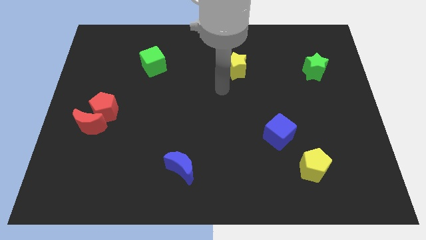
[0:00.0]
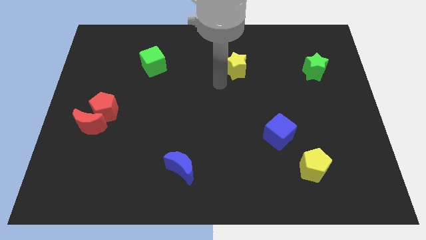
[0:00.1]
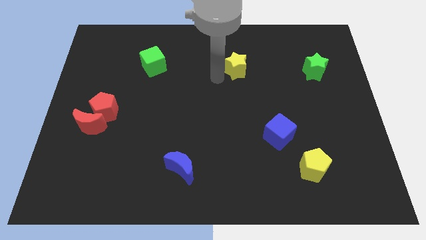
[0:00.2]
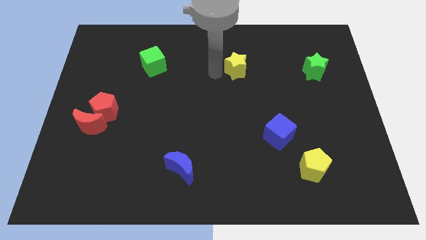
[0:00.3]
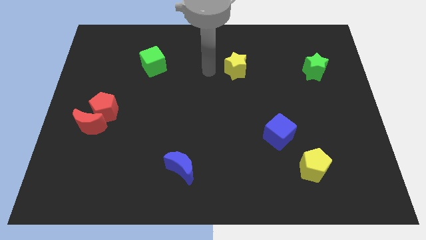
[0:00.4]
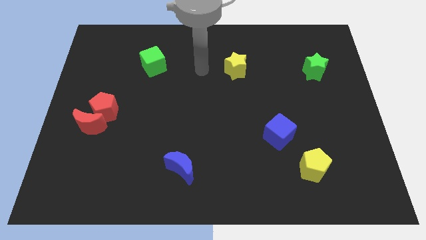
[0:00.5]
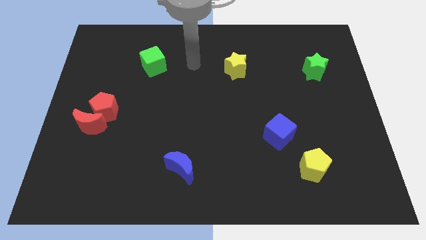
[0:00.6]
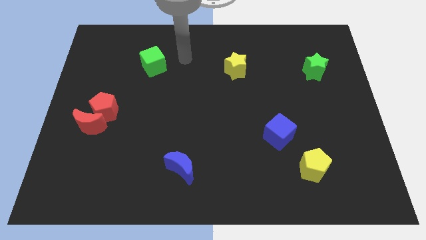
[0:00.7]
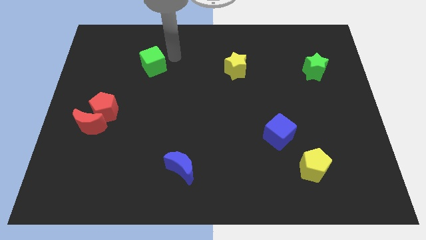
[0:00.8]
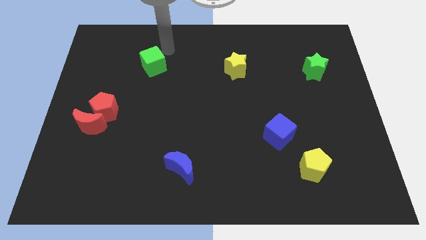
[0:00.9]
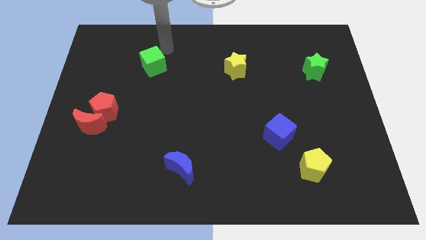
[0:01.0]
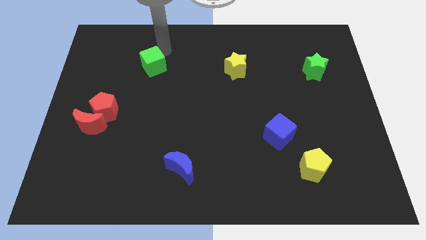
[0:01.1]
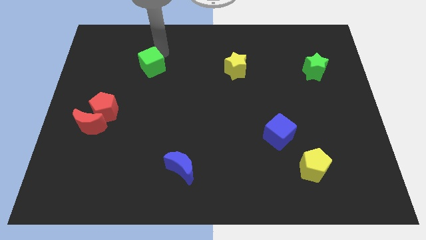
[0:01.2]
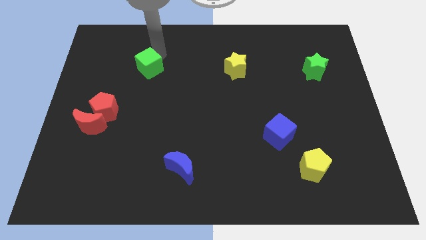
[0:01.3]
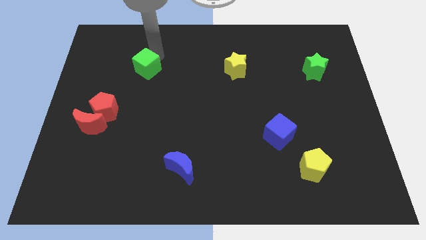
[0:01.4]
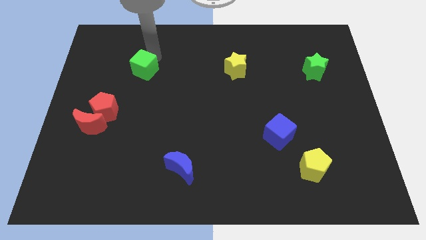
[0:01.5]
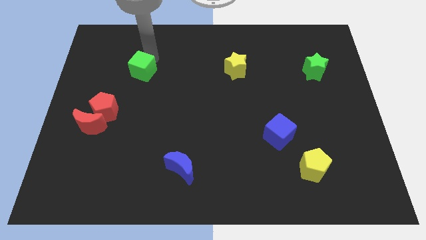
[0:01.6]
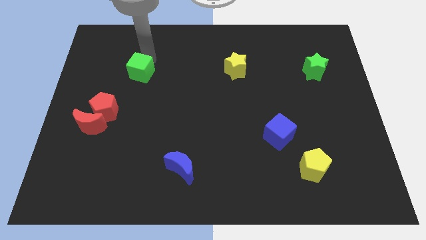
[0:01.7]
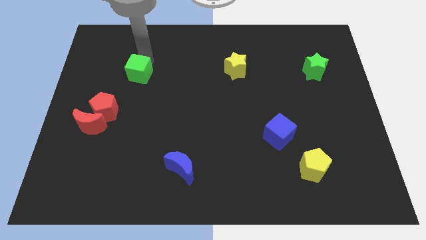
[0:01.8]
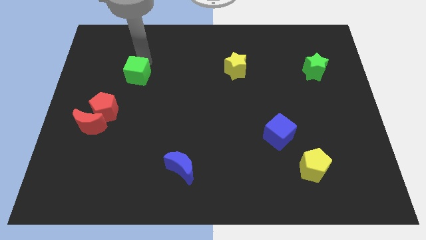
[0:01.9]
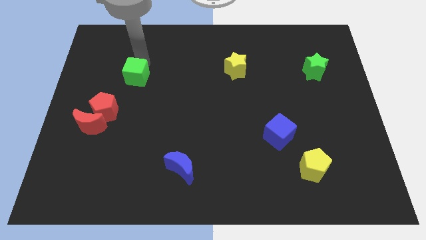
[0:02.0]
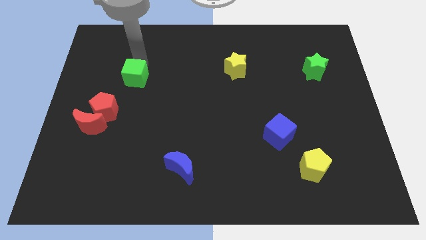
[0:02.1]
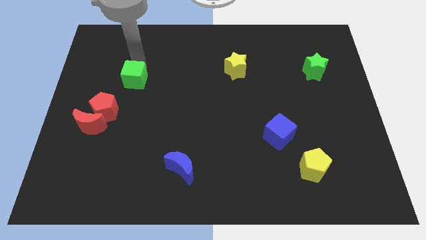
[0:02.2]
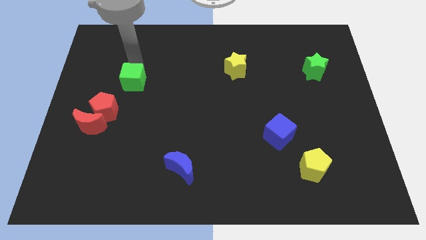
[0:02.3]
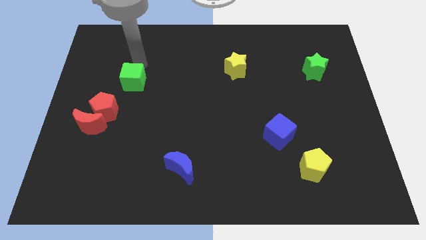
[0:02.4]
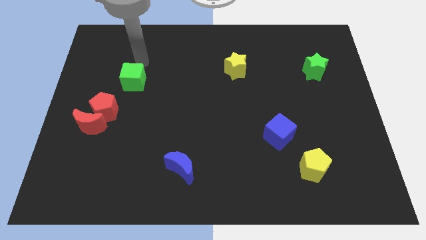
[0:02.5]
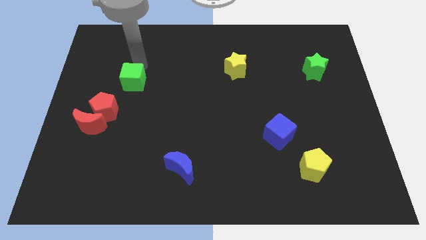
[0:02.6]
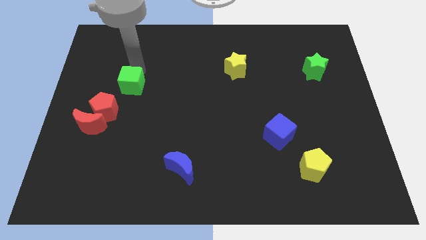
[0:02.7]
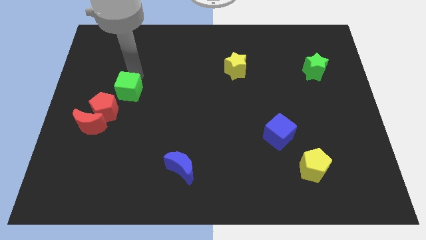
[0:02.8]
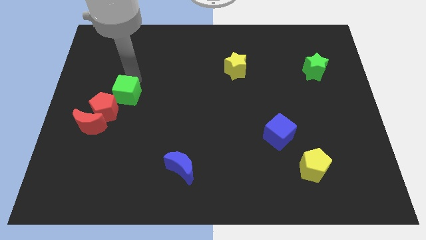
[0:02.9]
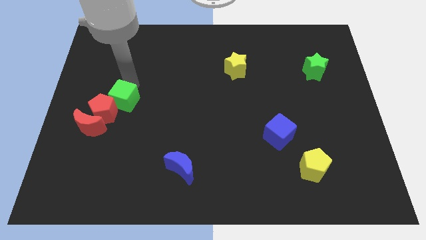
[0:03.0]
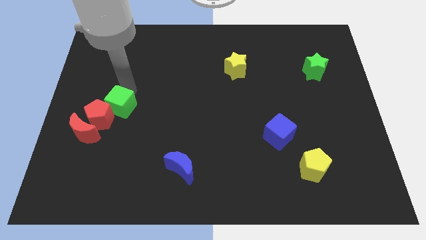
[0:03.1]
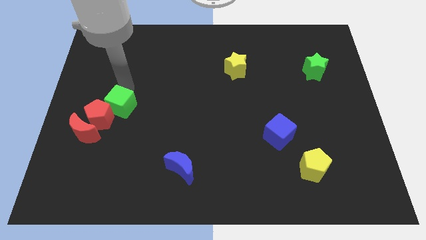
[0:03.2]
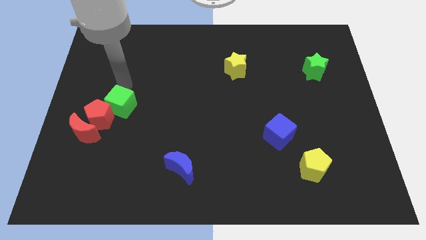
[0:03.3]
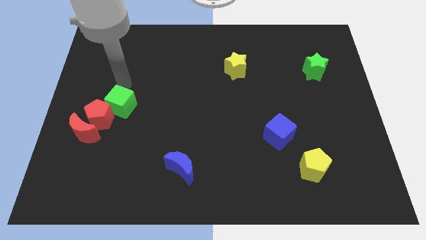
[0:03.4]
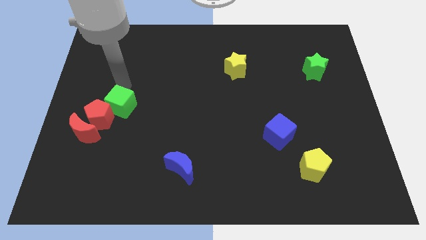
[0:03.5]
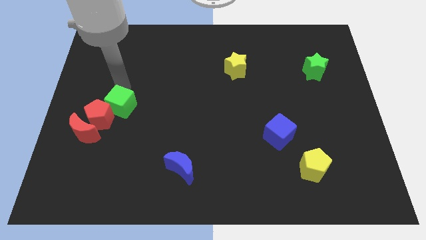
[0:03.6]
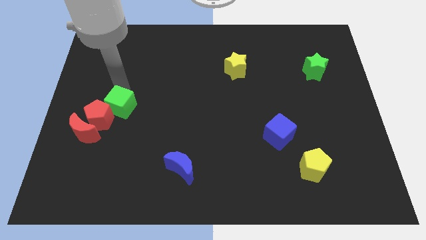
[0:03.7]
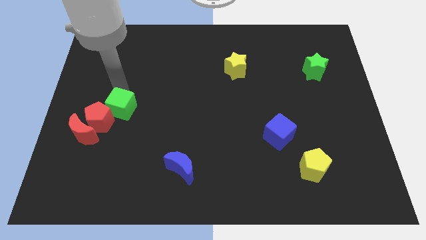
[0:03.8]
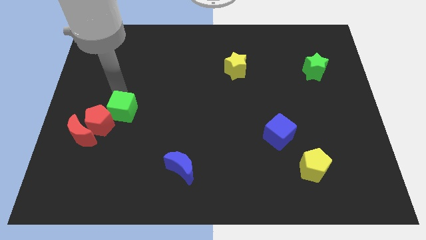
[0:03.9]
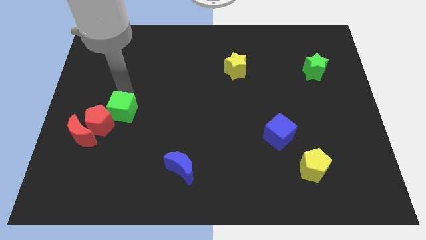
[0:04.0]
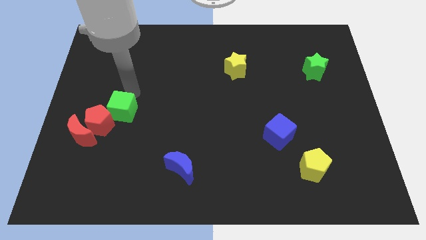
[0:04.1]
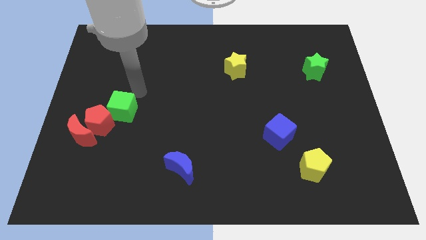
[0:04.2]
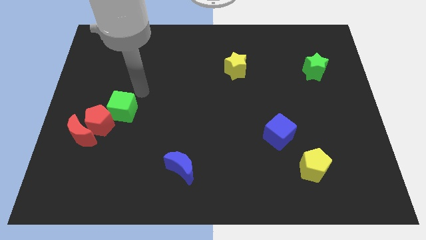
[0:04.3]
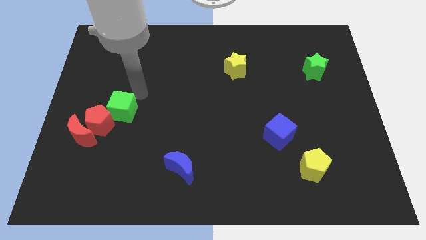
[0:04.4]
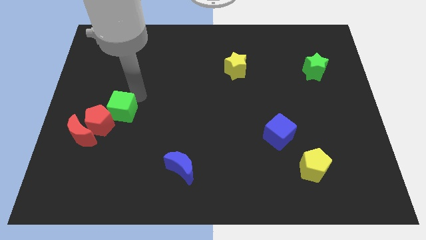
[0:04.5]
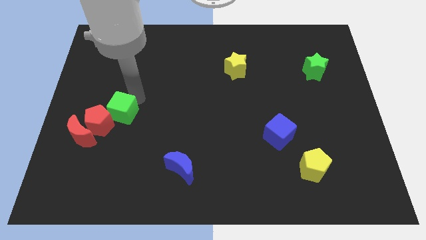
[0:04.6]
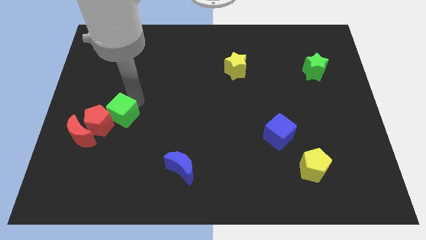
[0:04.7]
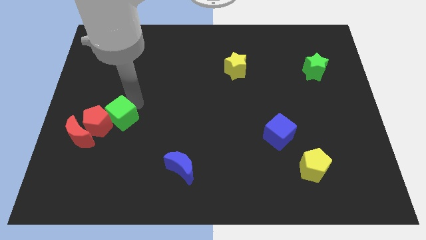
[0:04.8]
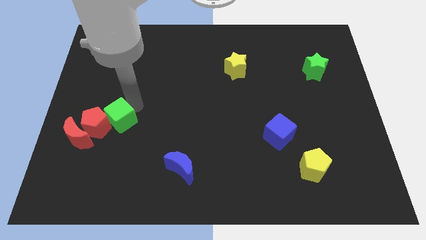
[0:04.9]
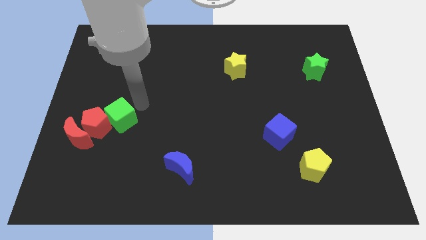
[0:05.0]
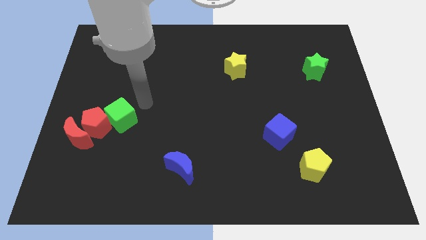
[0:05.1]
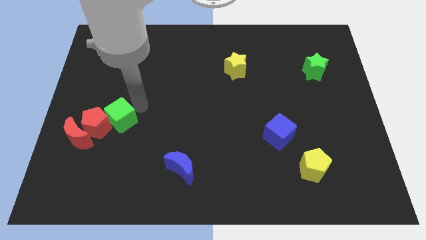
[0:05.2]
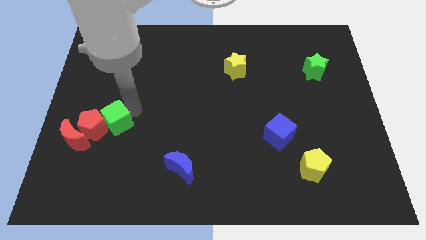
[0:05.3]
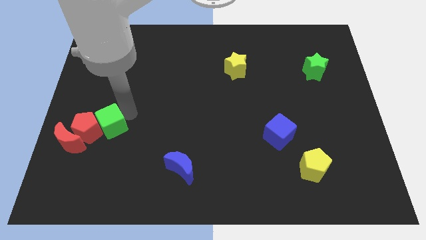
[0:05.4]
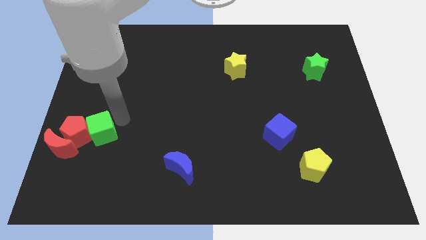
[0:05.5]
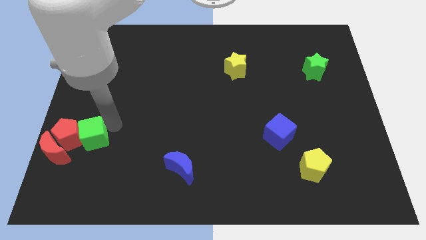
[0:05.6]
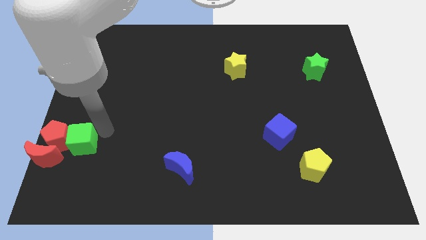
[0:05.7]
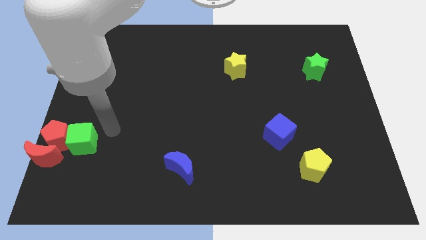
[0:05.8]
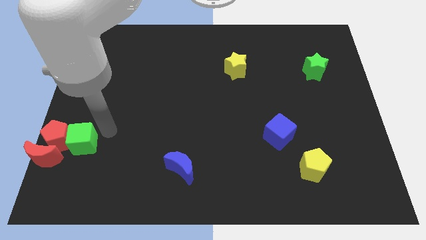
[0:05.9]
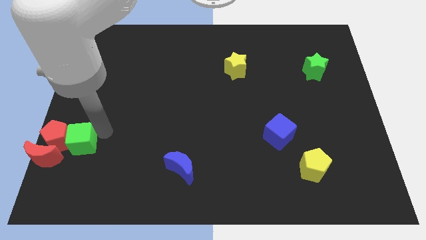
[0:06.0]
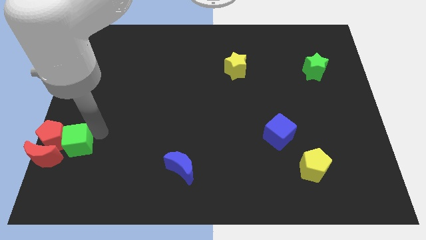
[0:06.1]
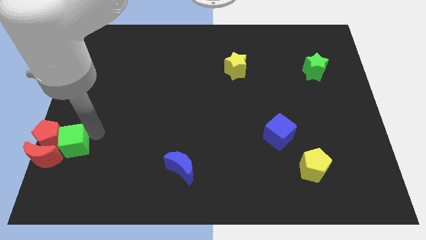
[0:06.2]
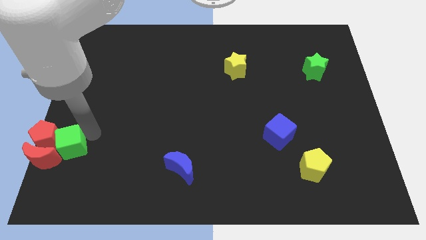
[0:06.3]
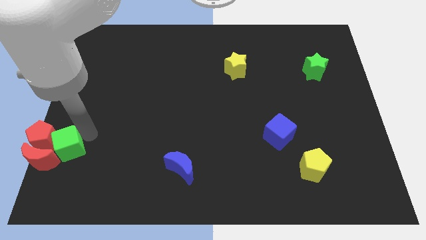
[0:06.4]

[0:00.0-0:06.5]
slide the green cube next to the red moon

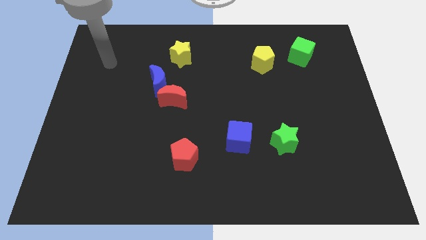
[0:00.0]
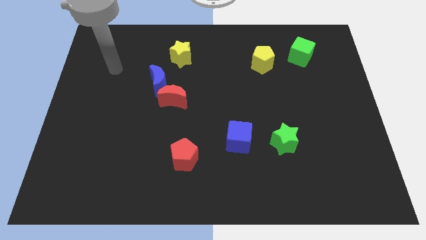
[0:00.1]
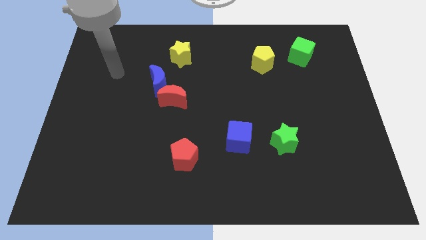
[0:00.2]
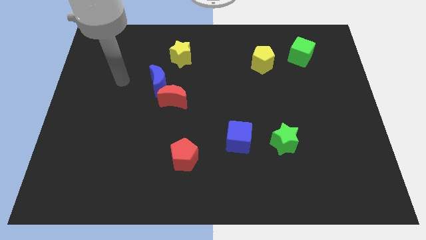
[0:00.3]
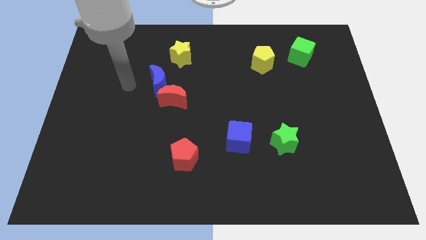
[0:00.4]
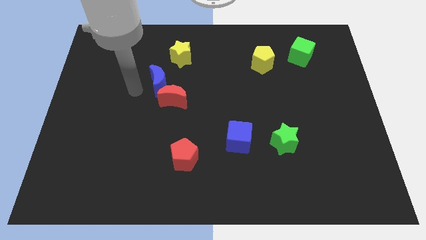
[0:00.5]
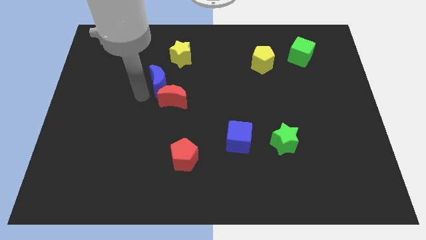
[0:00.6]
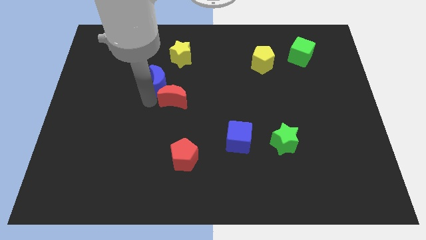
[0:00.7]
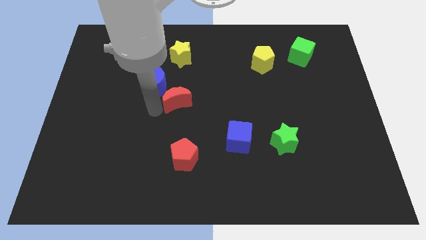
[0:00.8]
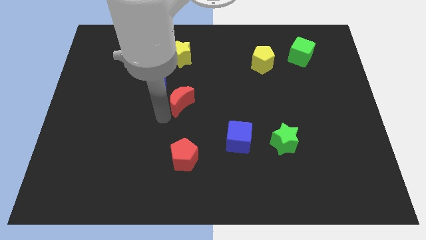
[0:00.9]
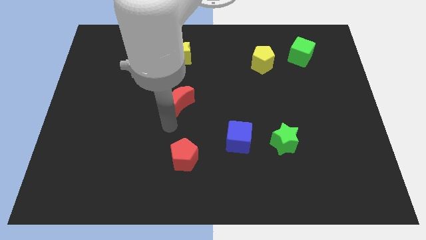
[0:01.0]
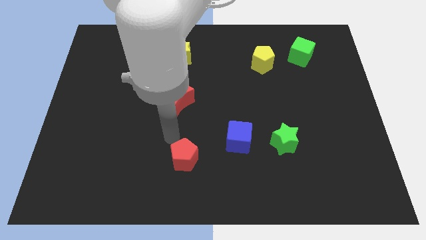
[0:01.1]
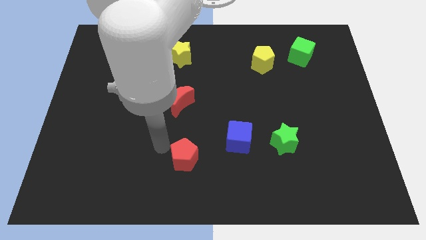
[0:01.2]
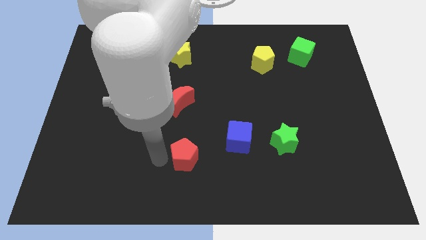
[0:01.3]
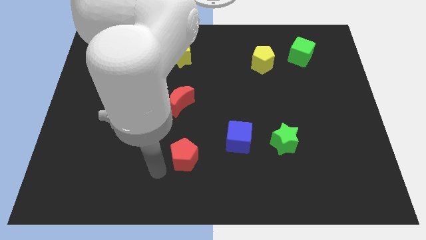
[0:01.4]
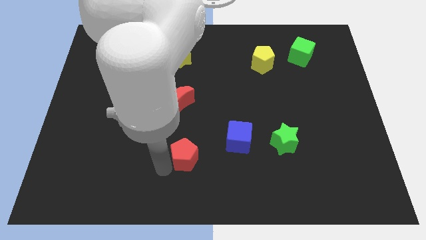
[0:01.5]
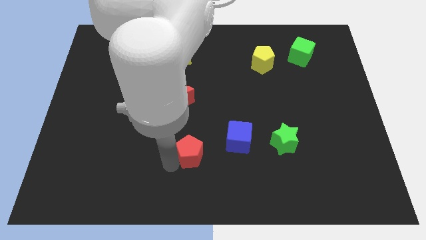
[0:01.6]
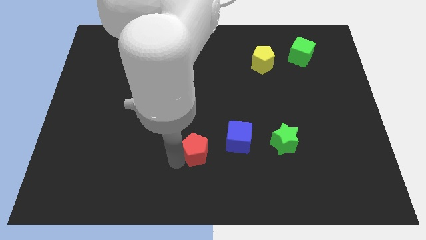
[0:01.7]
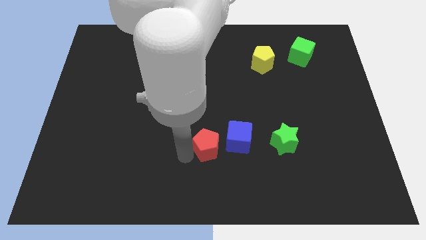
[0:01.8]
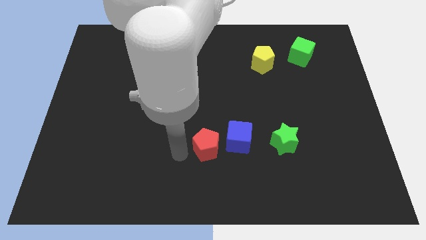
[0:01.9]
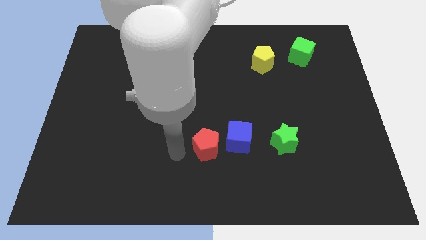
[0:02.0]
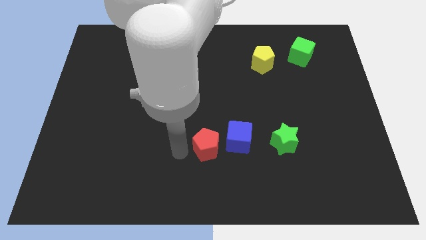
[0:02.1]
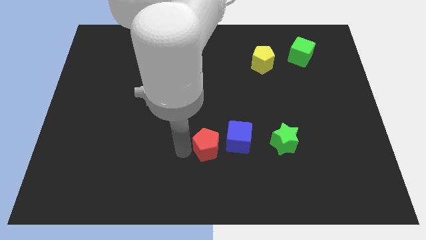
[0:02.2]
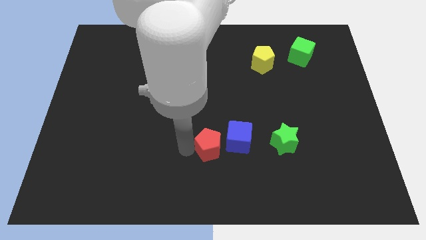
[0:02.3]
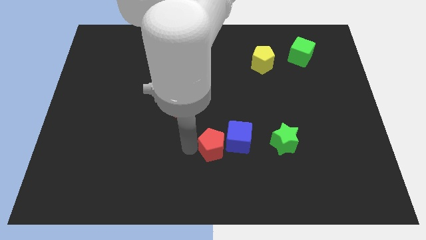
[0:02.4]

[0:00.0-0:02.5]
slide the red pentagon to the blue cube
